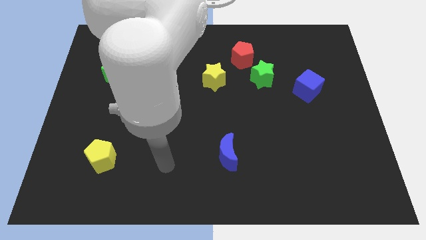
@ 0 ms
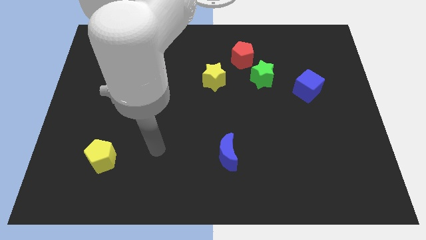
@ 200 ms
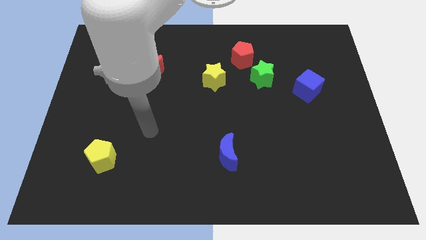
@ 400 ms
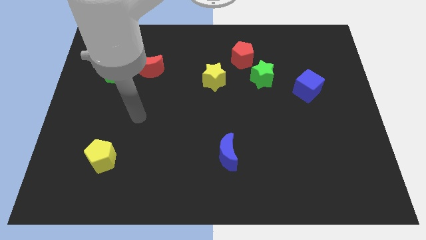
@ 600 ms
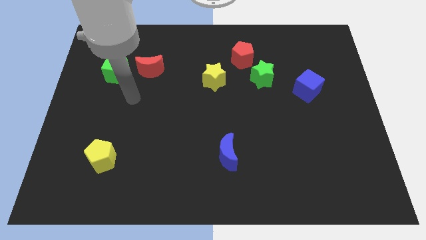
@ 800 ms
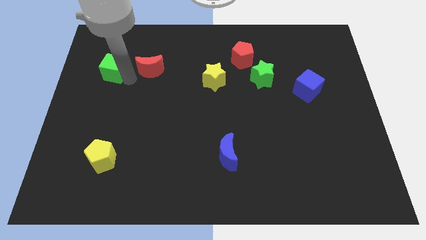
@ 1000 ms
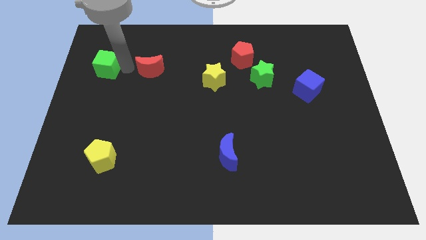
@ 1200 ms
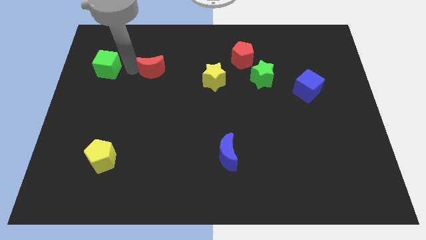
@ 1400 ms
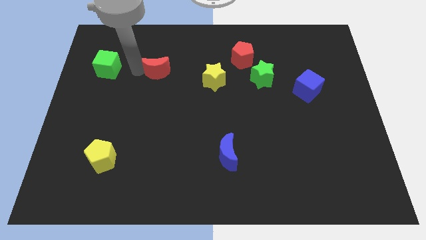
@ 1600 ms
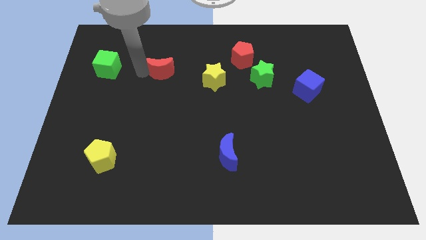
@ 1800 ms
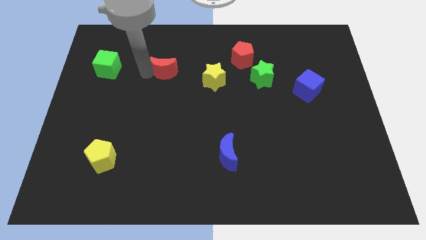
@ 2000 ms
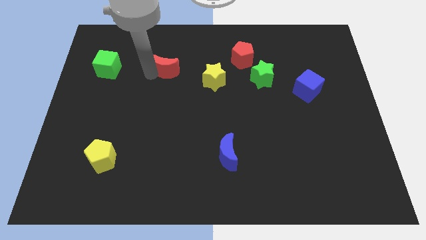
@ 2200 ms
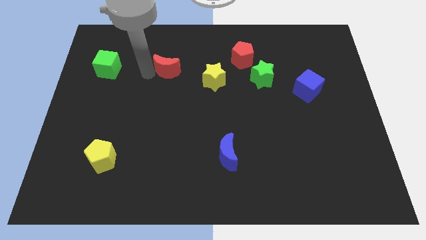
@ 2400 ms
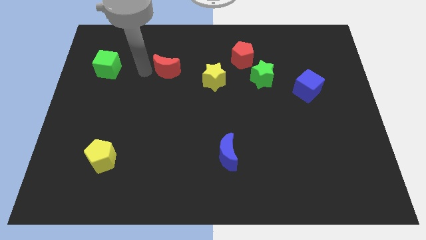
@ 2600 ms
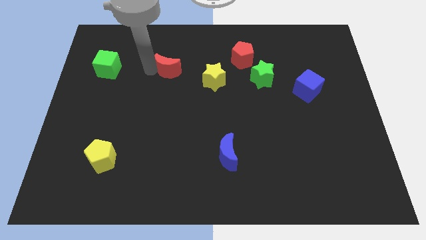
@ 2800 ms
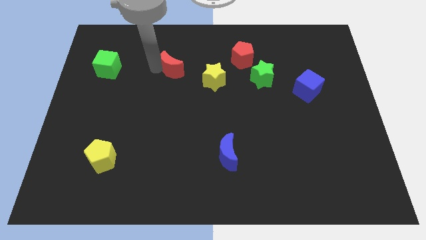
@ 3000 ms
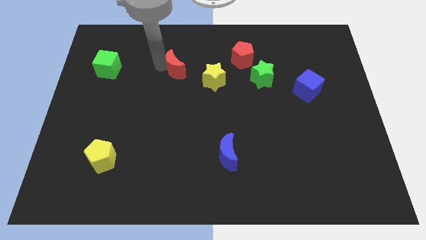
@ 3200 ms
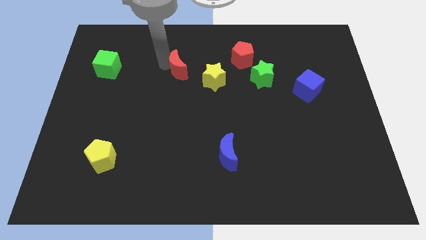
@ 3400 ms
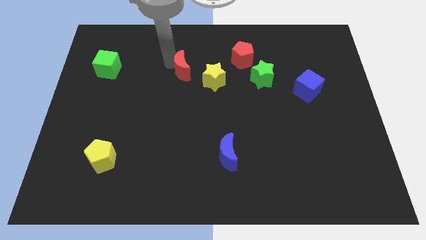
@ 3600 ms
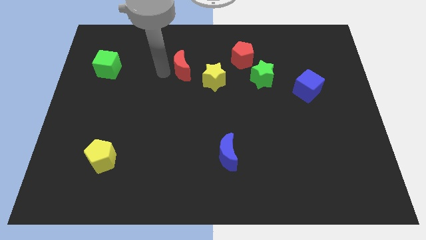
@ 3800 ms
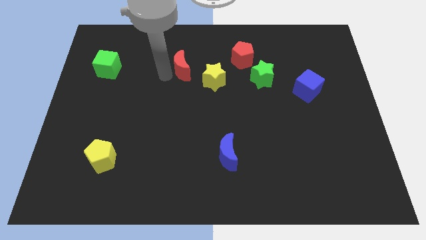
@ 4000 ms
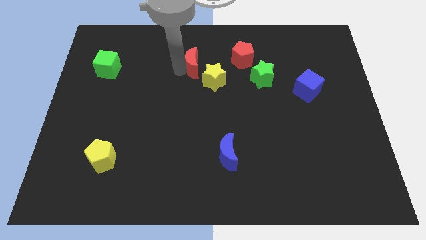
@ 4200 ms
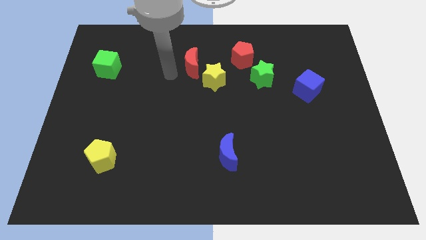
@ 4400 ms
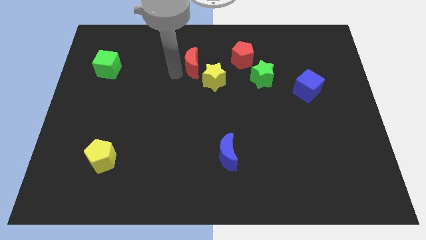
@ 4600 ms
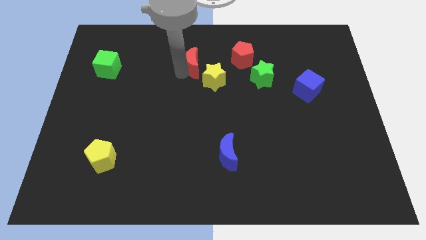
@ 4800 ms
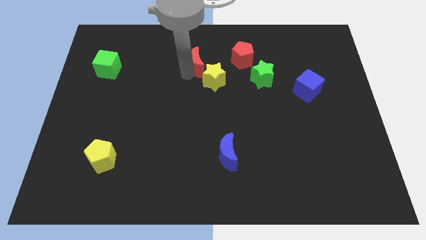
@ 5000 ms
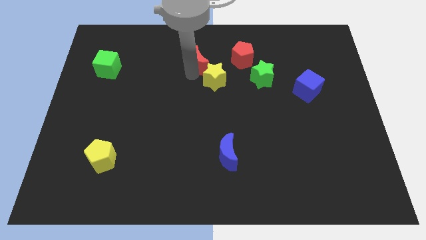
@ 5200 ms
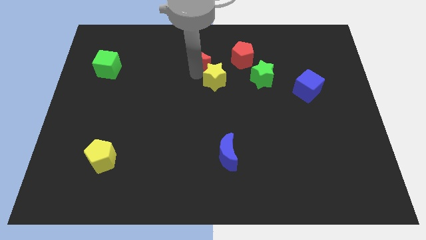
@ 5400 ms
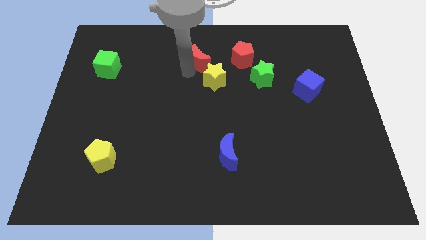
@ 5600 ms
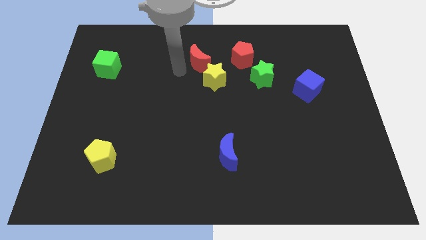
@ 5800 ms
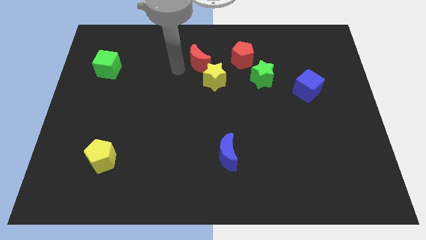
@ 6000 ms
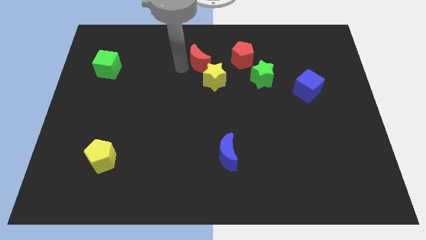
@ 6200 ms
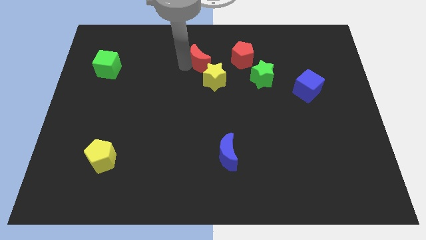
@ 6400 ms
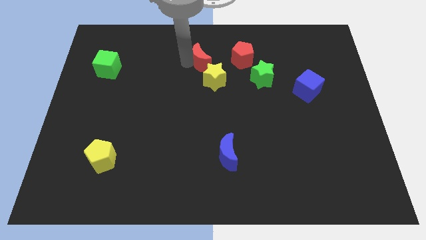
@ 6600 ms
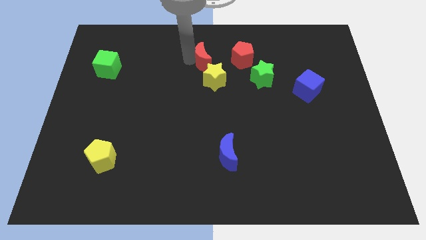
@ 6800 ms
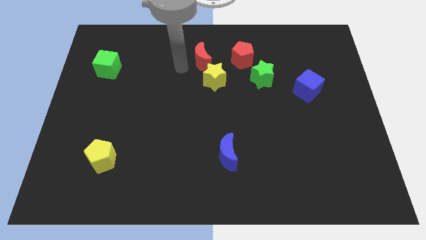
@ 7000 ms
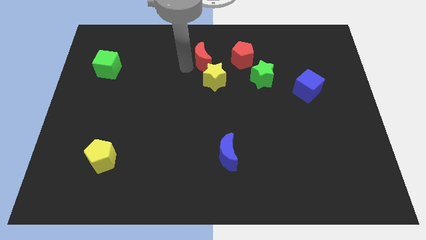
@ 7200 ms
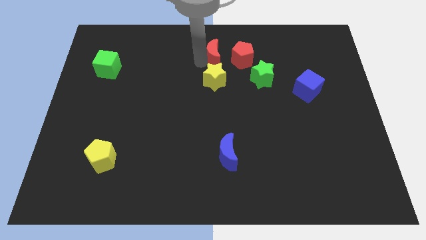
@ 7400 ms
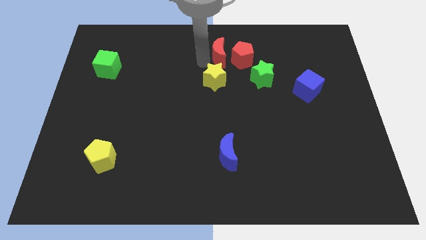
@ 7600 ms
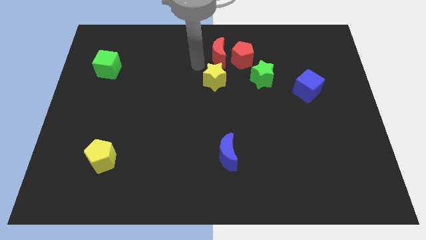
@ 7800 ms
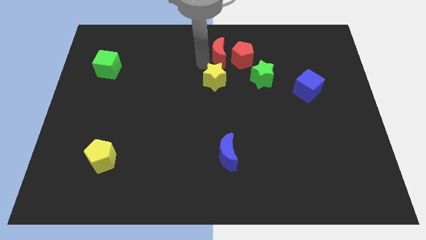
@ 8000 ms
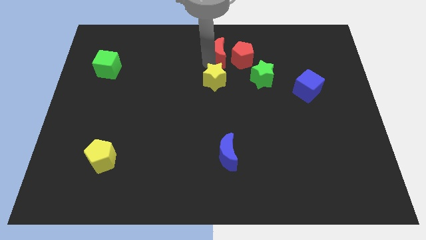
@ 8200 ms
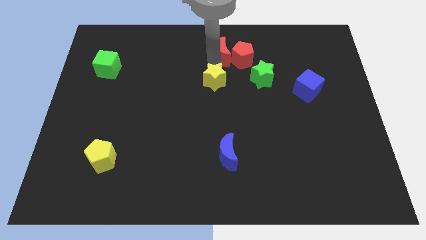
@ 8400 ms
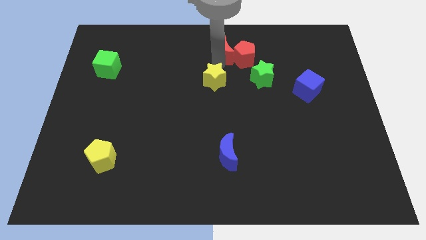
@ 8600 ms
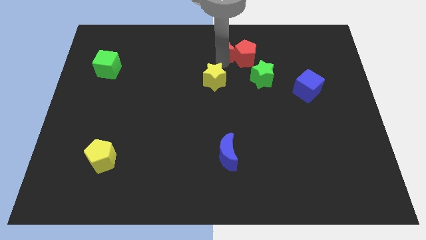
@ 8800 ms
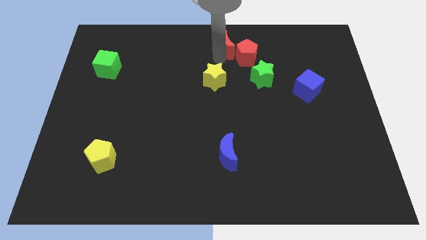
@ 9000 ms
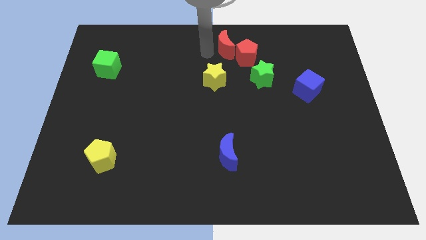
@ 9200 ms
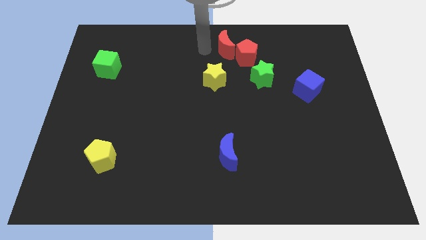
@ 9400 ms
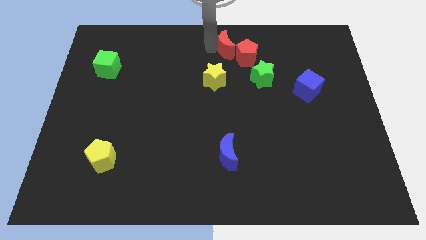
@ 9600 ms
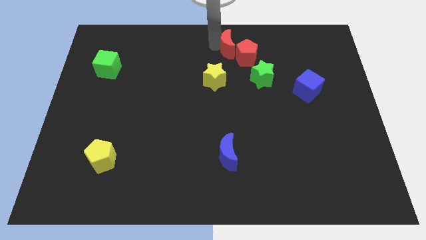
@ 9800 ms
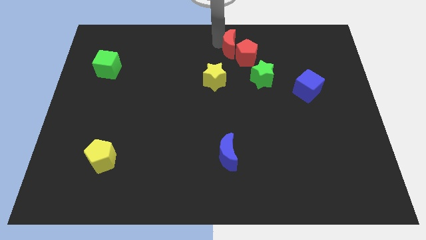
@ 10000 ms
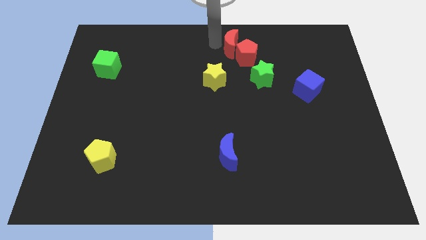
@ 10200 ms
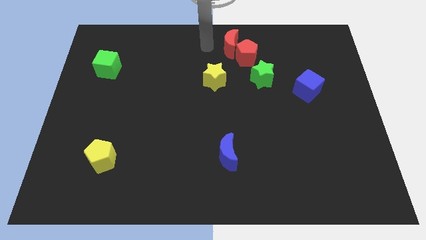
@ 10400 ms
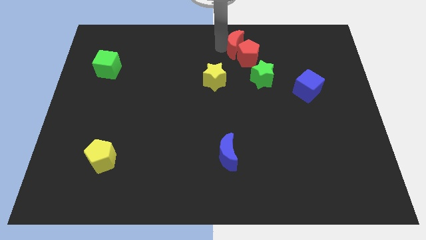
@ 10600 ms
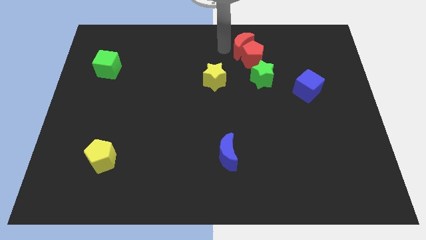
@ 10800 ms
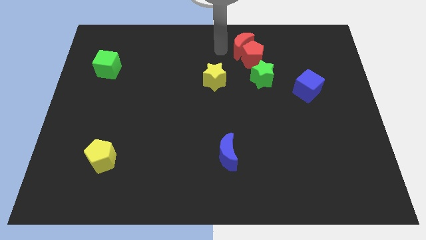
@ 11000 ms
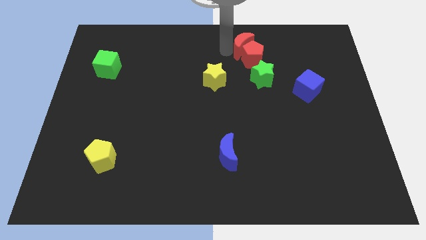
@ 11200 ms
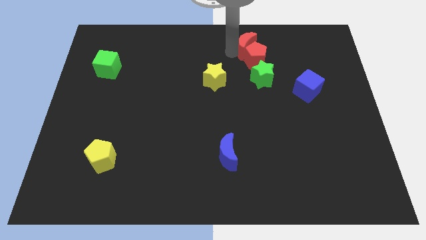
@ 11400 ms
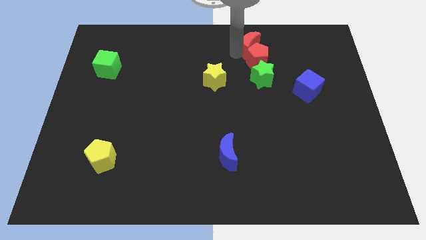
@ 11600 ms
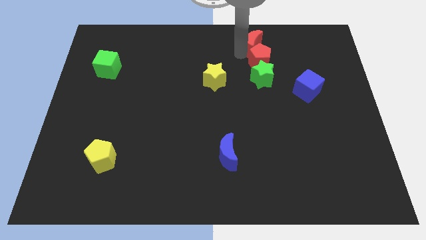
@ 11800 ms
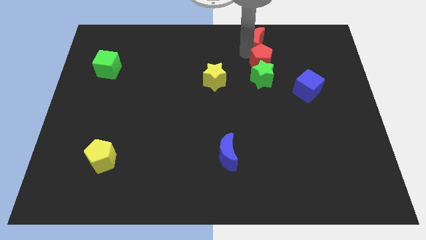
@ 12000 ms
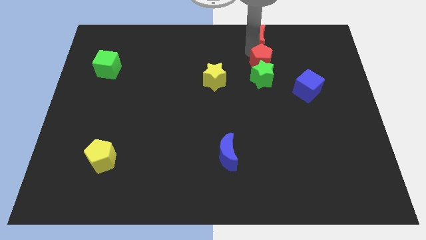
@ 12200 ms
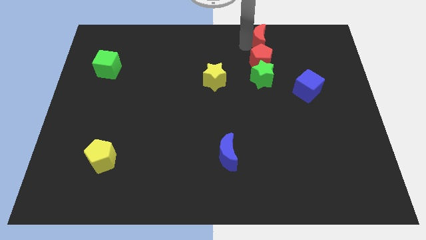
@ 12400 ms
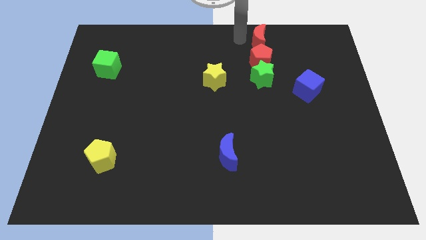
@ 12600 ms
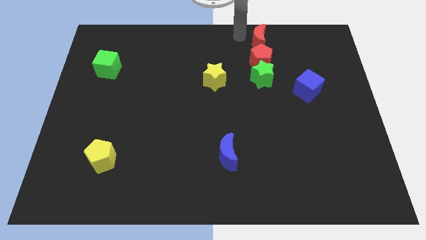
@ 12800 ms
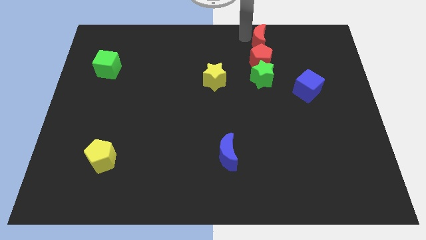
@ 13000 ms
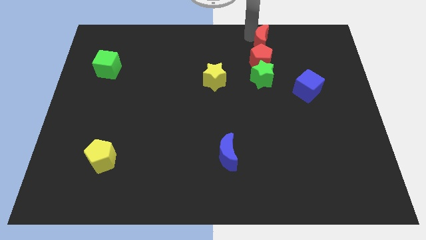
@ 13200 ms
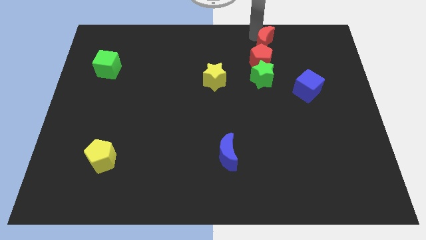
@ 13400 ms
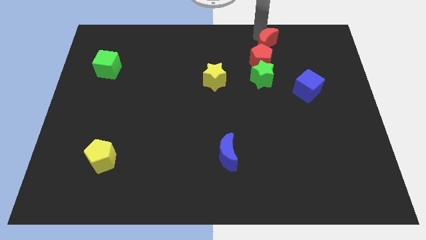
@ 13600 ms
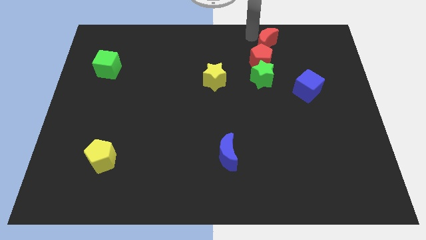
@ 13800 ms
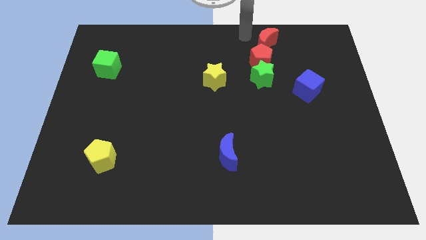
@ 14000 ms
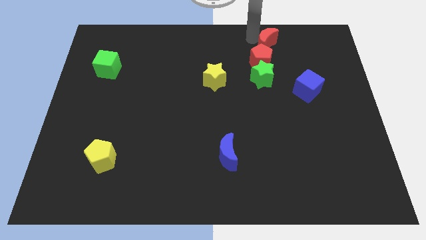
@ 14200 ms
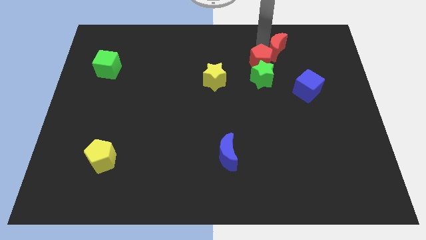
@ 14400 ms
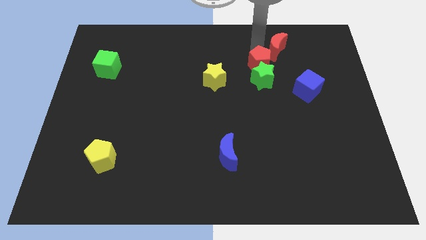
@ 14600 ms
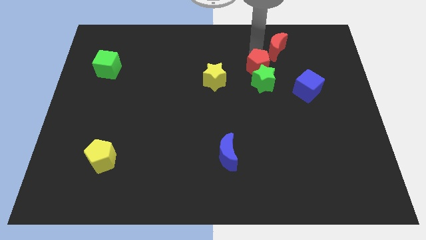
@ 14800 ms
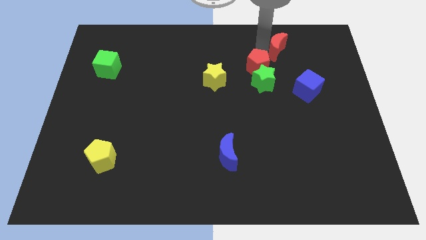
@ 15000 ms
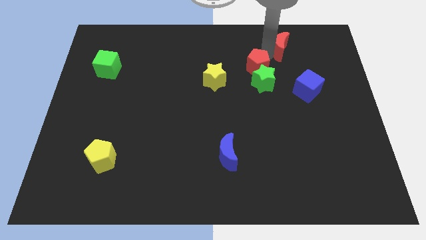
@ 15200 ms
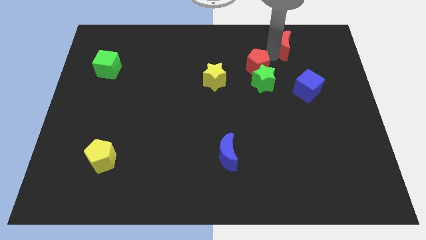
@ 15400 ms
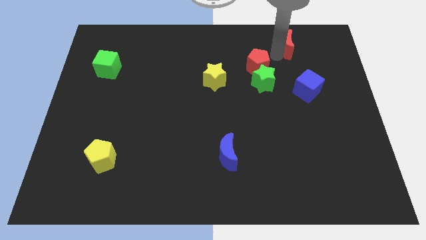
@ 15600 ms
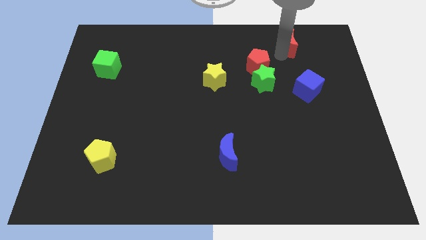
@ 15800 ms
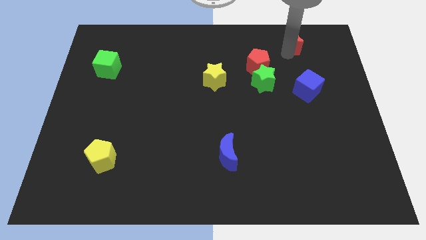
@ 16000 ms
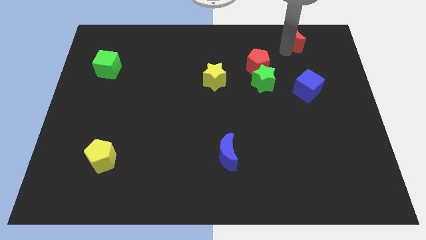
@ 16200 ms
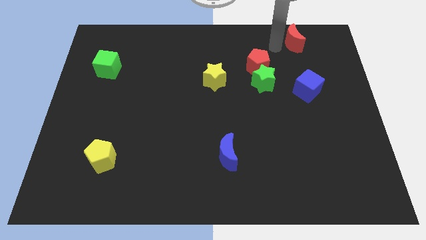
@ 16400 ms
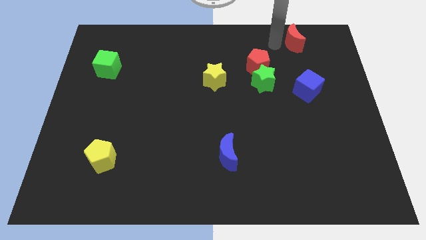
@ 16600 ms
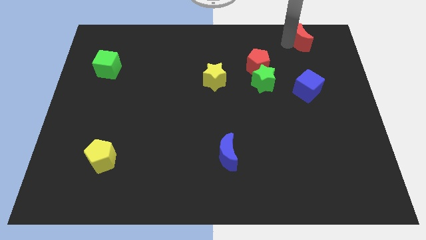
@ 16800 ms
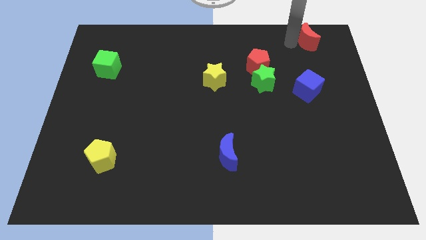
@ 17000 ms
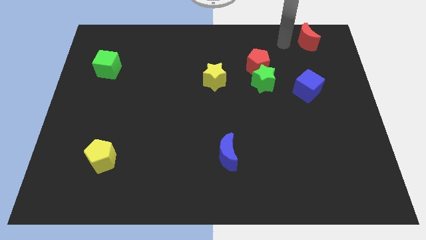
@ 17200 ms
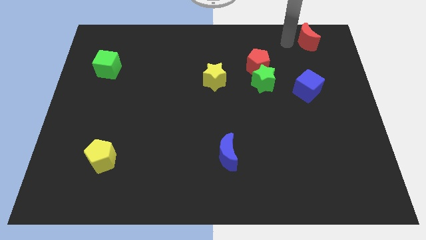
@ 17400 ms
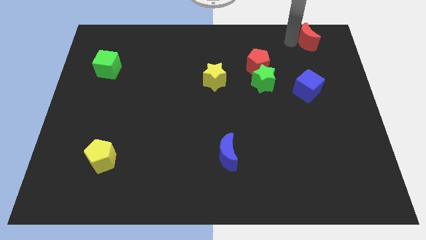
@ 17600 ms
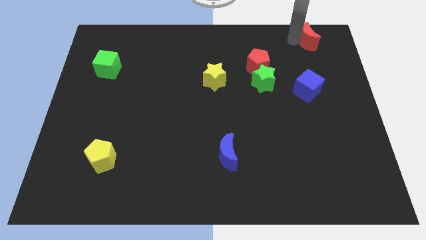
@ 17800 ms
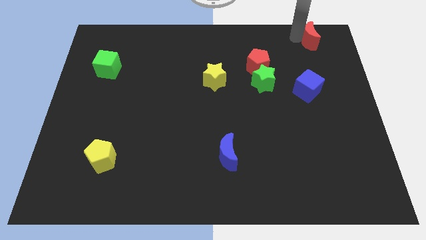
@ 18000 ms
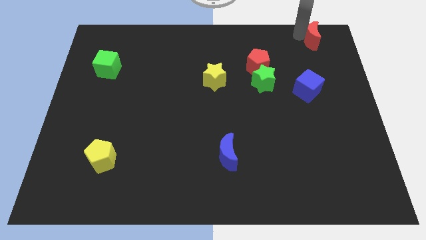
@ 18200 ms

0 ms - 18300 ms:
put the red moon to the upper right corner
